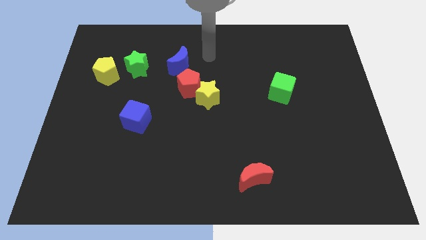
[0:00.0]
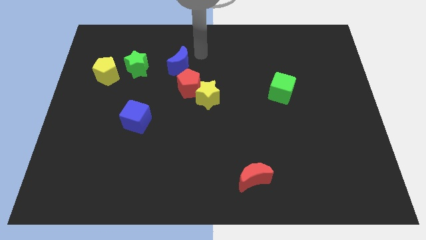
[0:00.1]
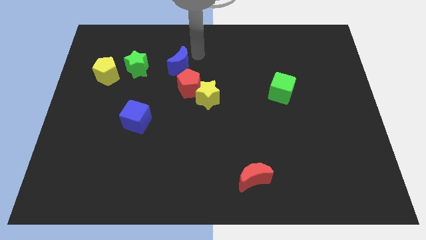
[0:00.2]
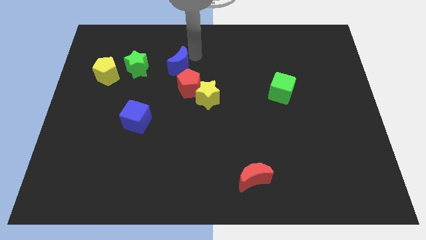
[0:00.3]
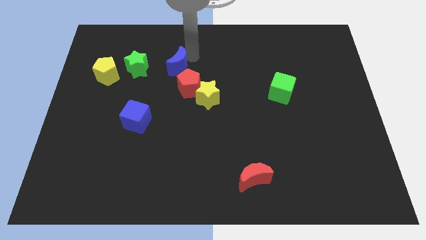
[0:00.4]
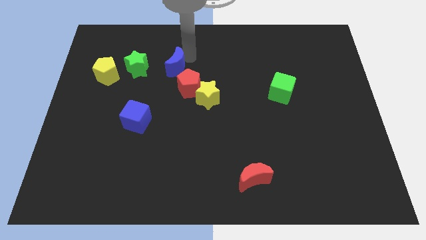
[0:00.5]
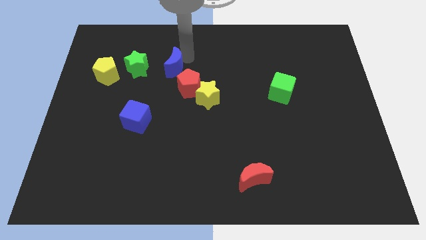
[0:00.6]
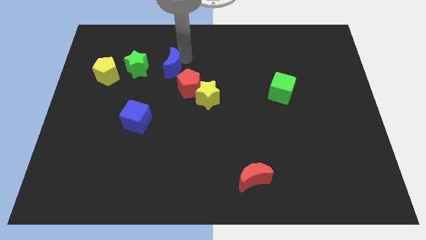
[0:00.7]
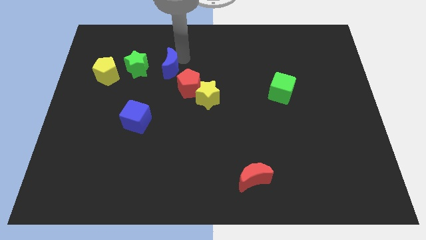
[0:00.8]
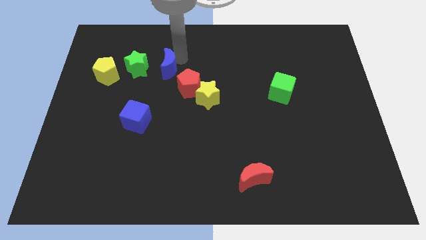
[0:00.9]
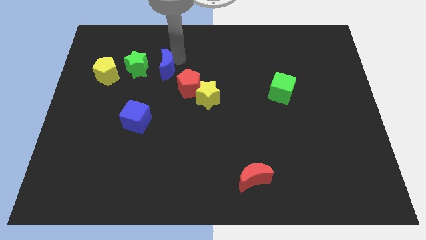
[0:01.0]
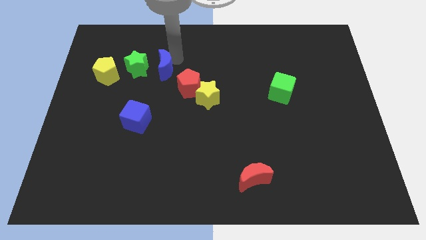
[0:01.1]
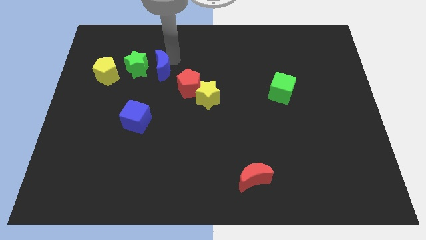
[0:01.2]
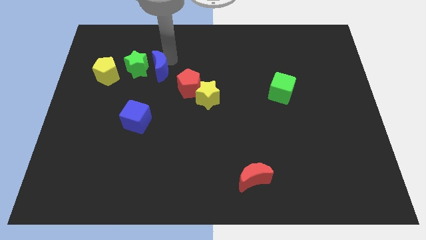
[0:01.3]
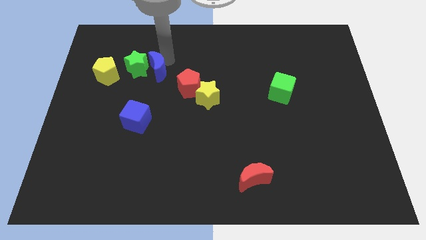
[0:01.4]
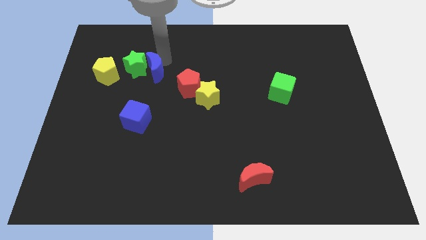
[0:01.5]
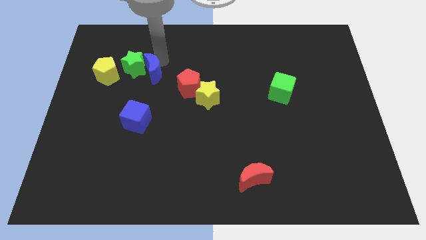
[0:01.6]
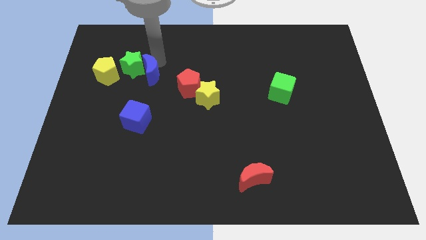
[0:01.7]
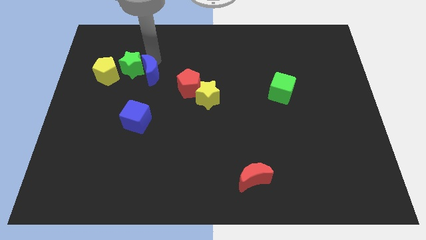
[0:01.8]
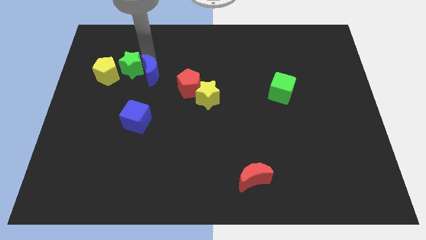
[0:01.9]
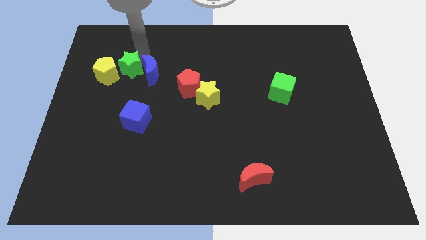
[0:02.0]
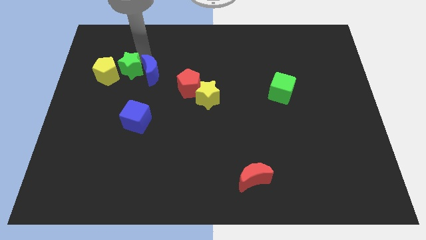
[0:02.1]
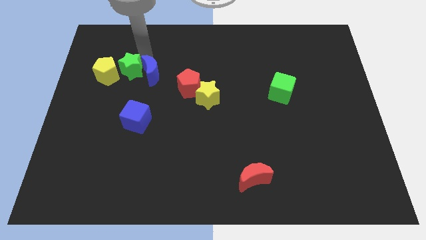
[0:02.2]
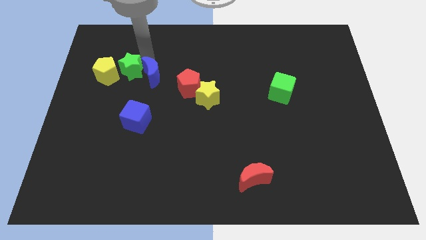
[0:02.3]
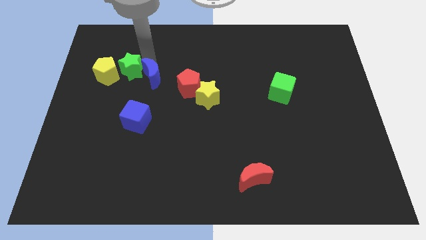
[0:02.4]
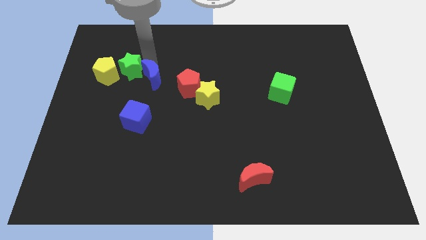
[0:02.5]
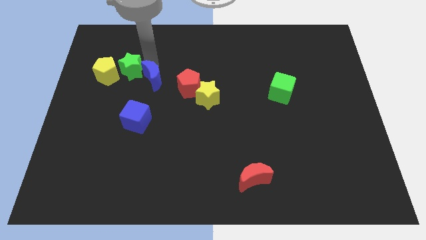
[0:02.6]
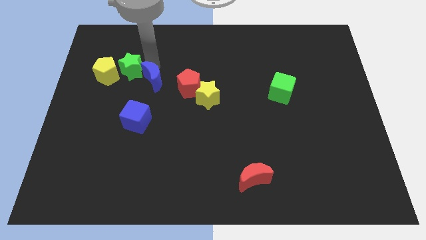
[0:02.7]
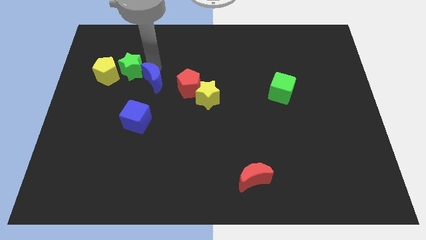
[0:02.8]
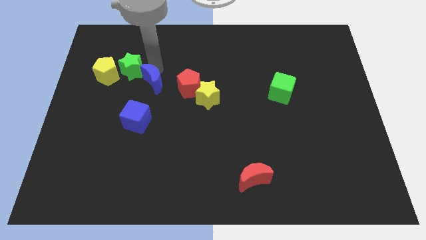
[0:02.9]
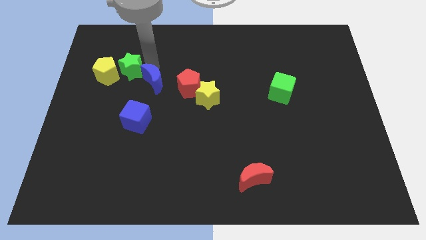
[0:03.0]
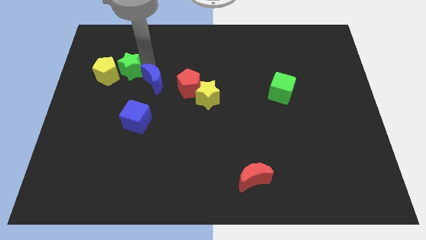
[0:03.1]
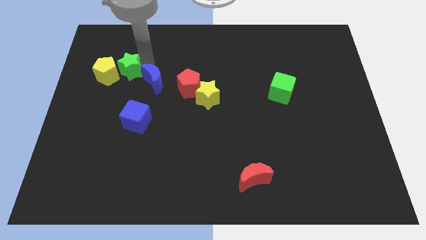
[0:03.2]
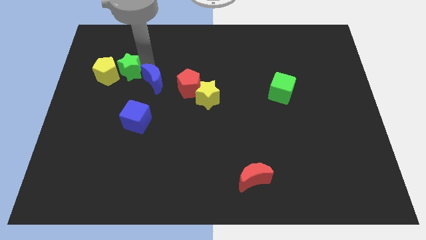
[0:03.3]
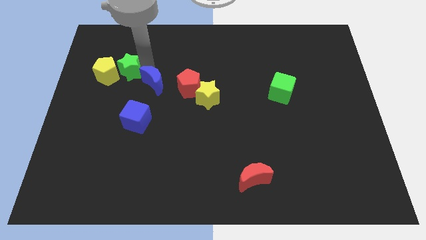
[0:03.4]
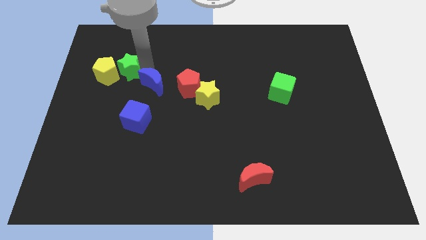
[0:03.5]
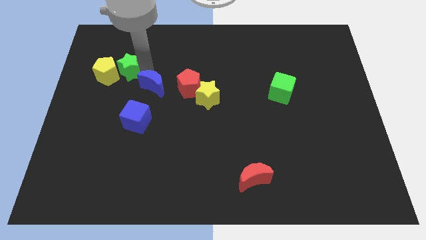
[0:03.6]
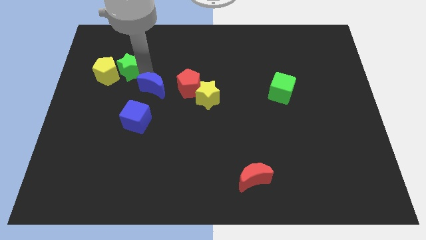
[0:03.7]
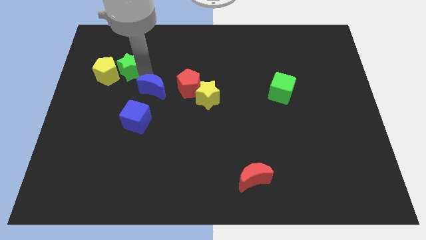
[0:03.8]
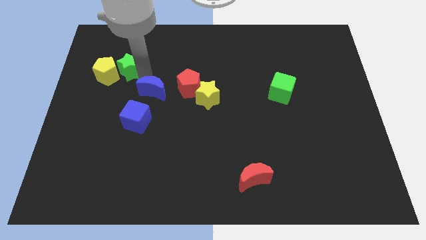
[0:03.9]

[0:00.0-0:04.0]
slightly slide the blue moon down

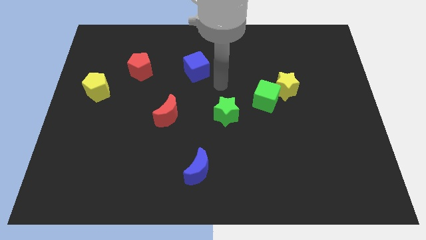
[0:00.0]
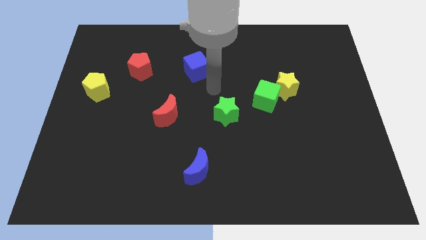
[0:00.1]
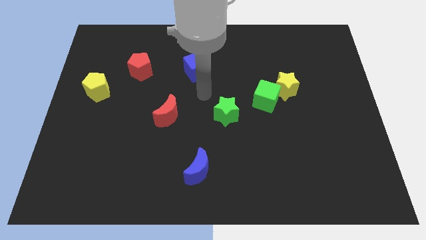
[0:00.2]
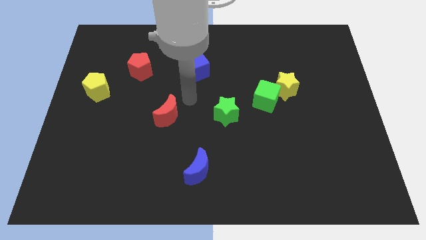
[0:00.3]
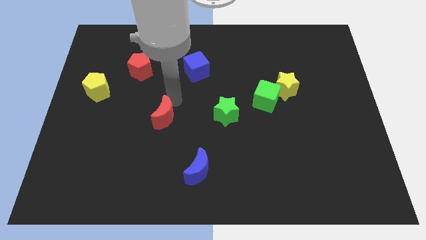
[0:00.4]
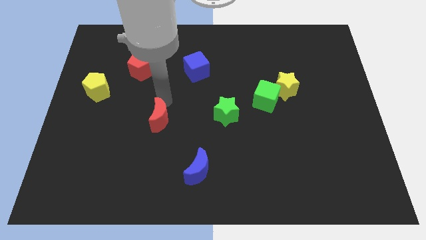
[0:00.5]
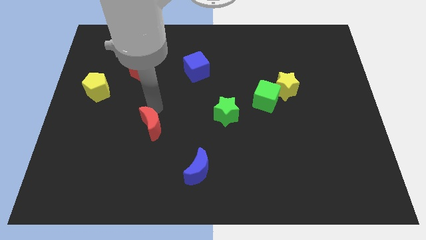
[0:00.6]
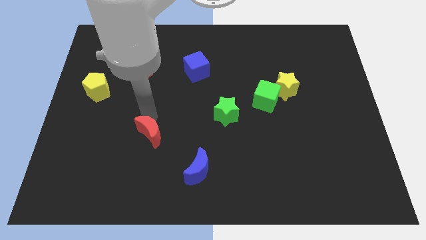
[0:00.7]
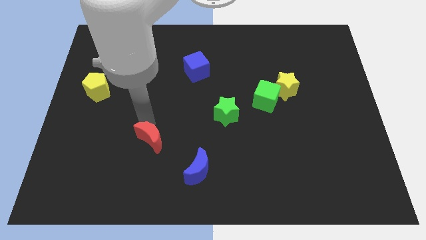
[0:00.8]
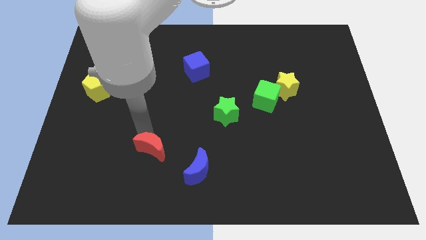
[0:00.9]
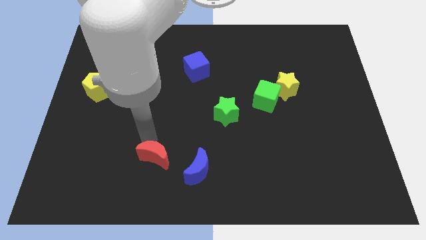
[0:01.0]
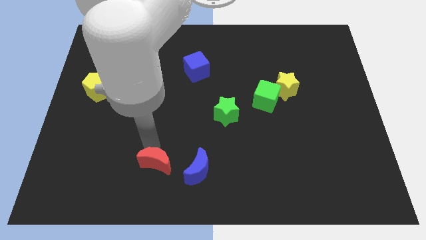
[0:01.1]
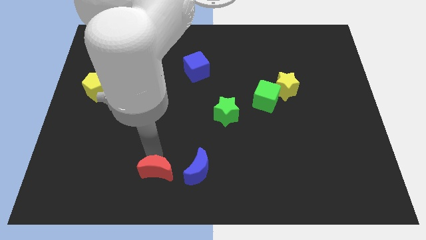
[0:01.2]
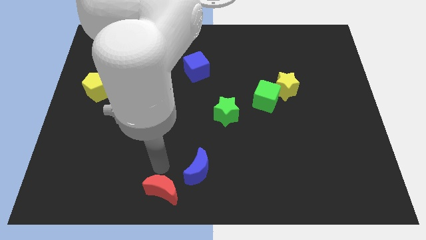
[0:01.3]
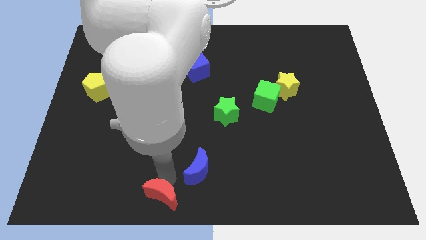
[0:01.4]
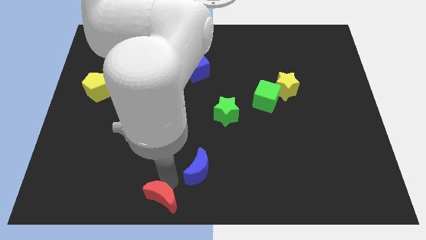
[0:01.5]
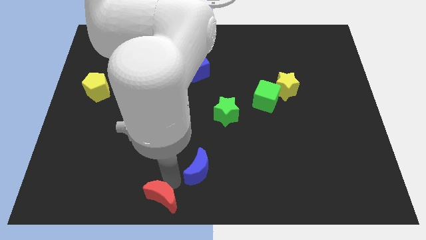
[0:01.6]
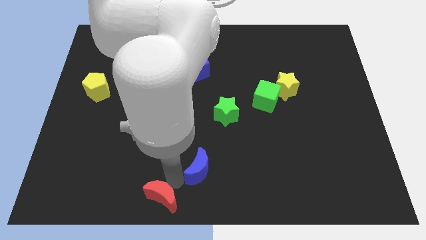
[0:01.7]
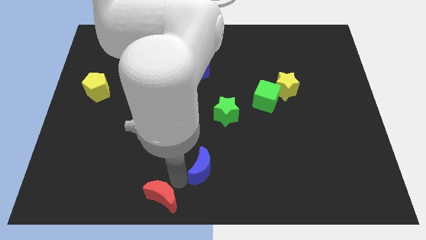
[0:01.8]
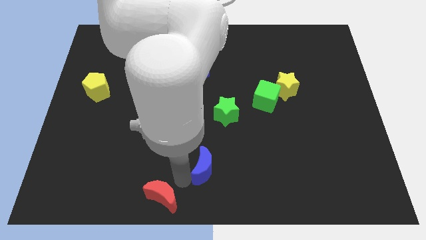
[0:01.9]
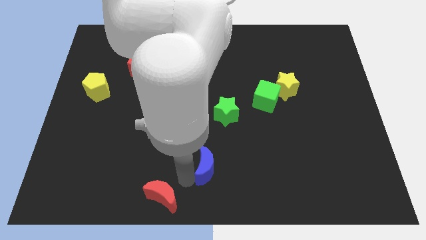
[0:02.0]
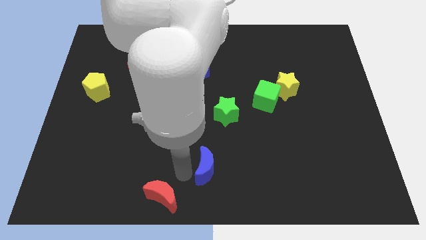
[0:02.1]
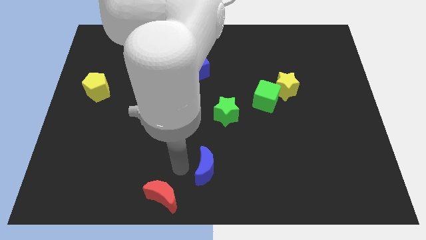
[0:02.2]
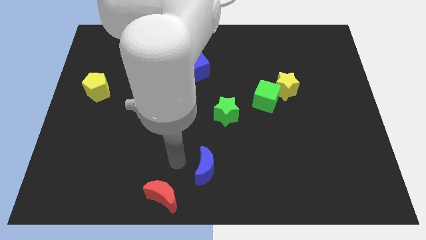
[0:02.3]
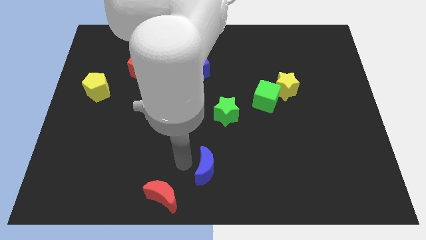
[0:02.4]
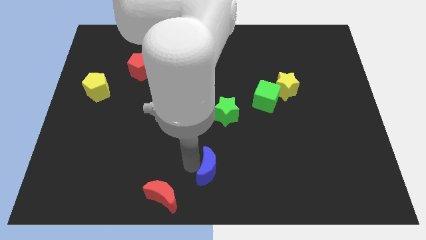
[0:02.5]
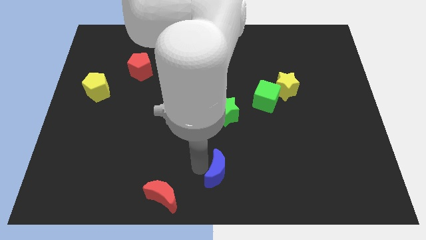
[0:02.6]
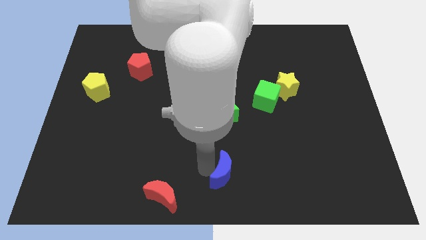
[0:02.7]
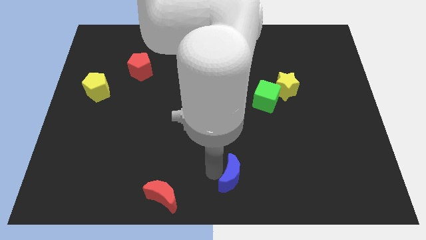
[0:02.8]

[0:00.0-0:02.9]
push the blue moon to the right slightly

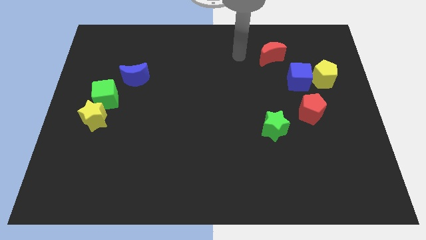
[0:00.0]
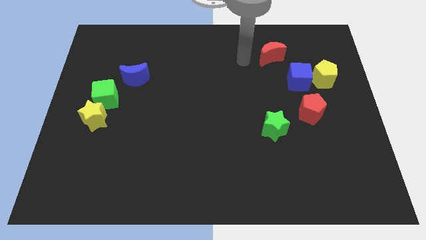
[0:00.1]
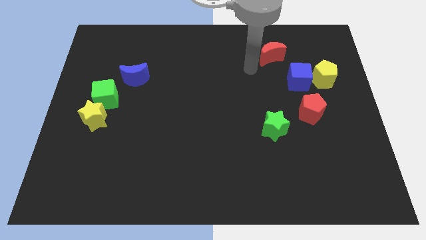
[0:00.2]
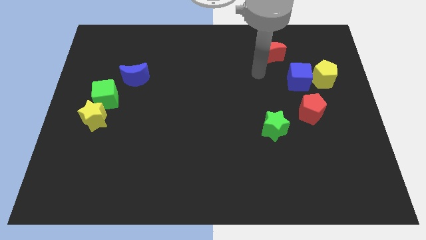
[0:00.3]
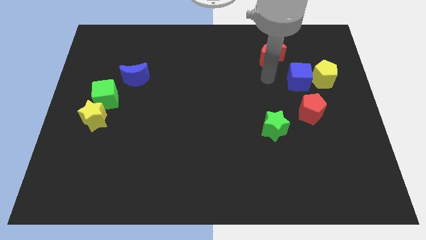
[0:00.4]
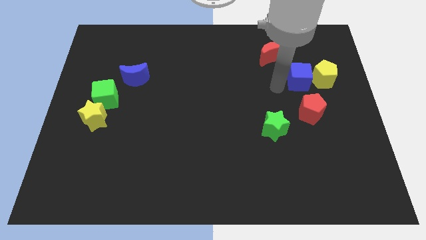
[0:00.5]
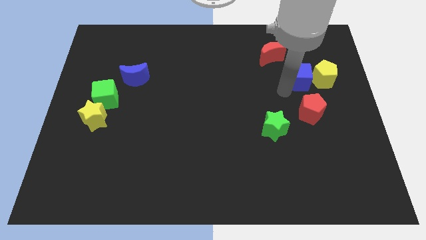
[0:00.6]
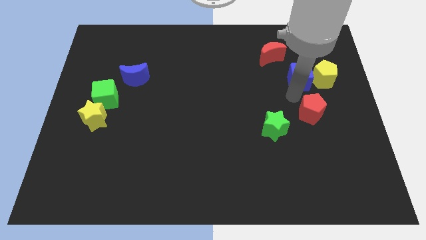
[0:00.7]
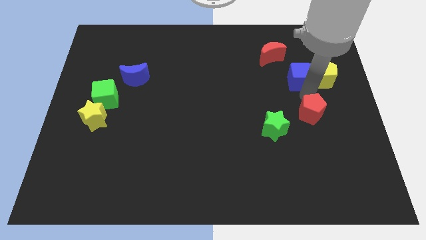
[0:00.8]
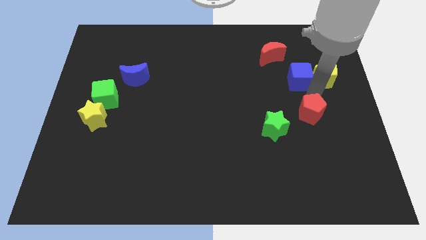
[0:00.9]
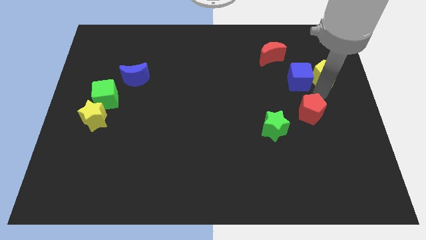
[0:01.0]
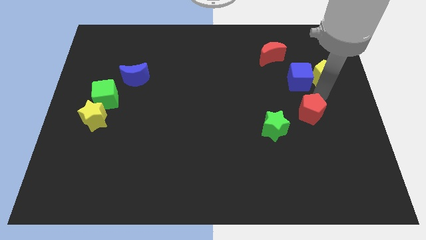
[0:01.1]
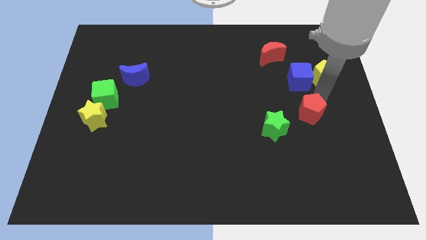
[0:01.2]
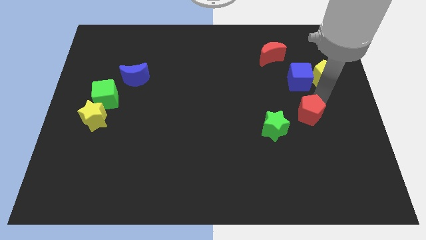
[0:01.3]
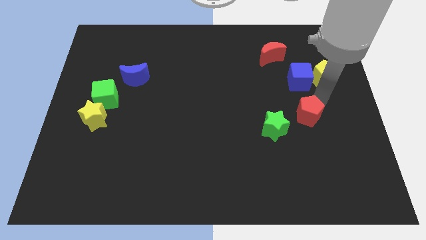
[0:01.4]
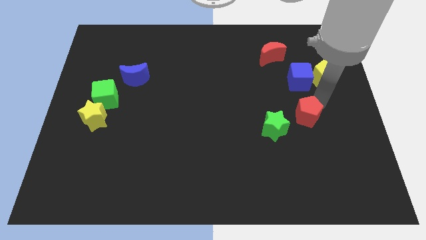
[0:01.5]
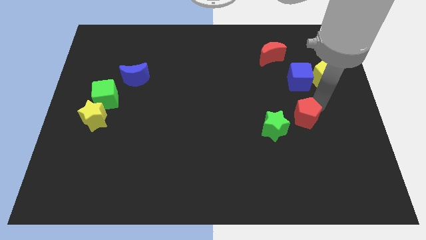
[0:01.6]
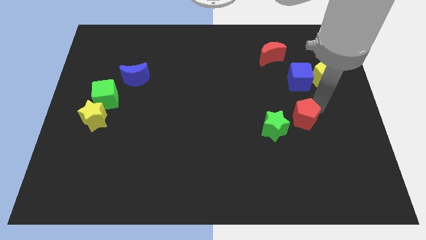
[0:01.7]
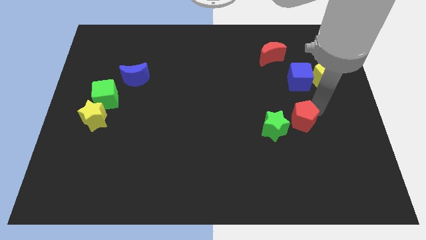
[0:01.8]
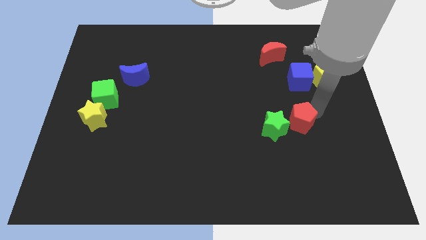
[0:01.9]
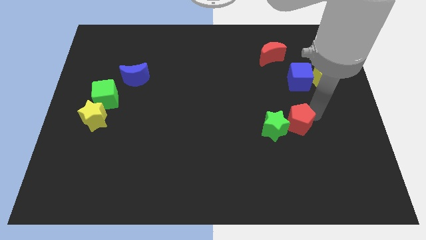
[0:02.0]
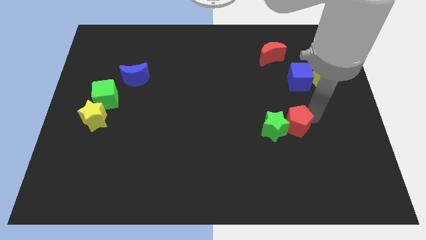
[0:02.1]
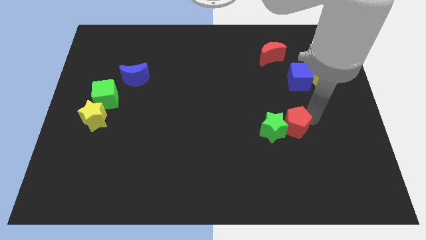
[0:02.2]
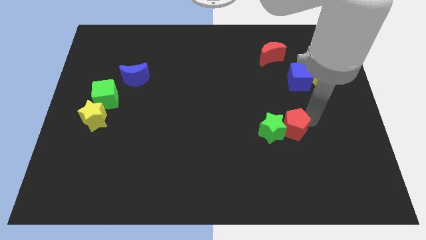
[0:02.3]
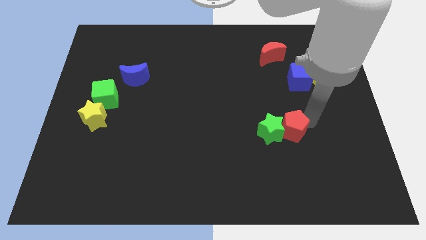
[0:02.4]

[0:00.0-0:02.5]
slide the red pentagon downwards and to the left diagonally a bit
